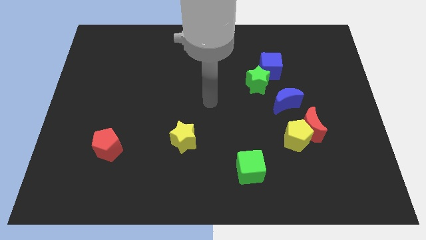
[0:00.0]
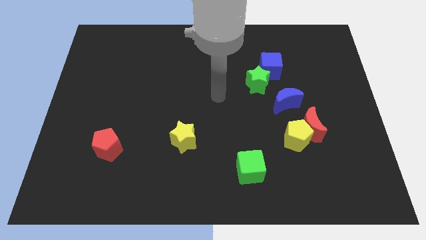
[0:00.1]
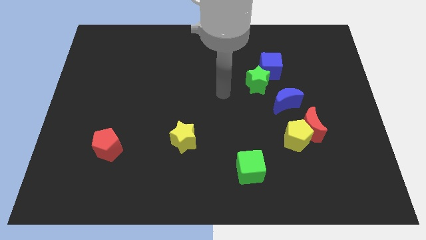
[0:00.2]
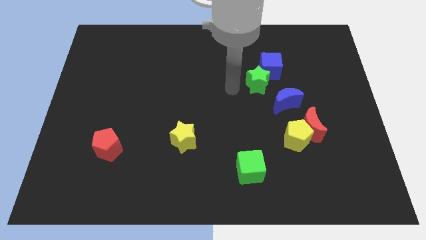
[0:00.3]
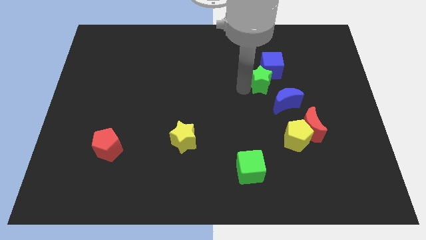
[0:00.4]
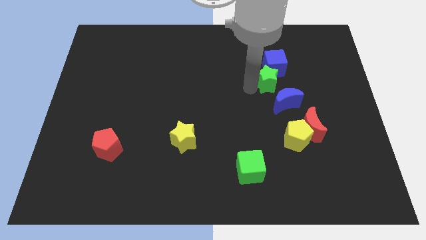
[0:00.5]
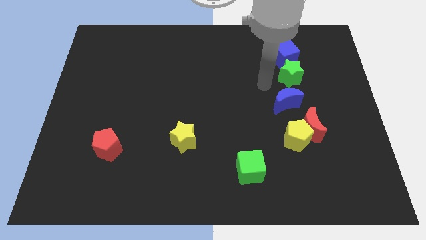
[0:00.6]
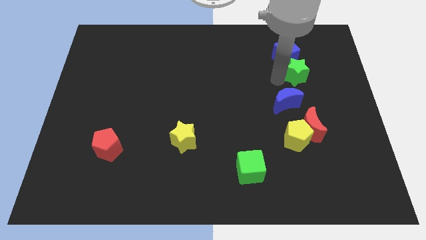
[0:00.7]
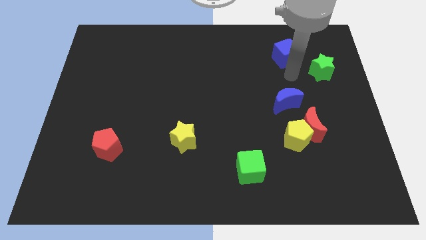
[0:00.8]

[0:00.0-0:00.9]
separate the blue cube from the green star

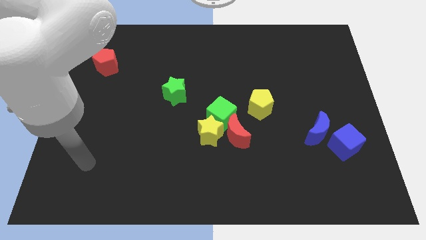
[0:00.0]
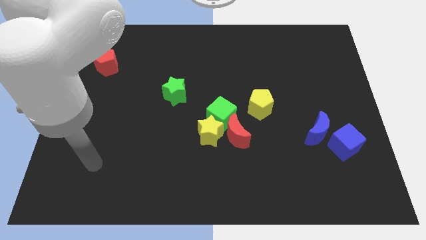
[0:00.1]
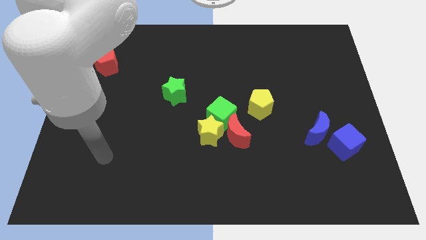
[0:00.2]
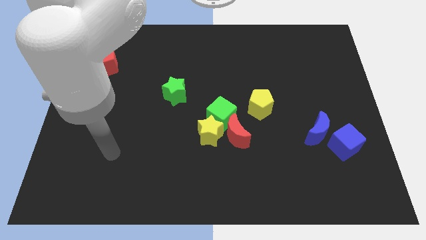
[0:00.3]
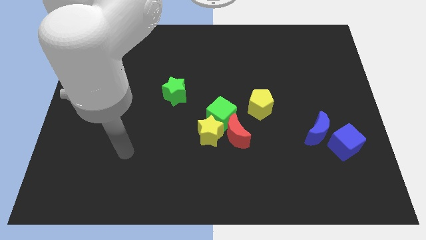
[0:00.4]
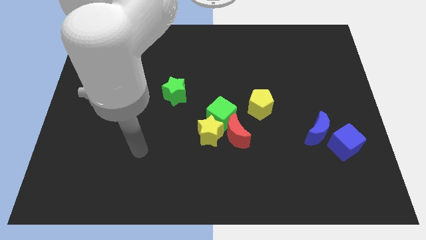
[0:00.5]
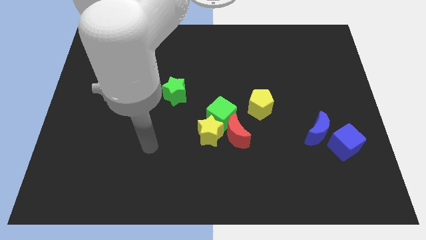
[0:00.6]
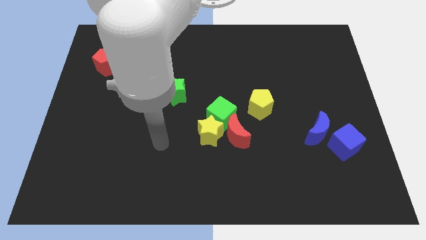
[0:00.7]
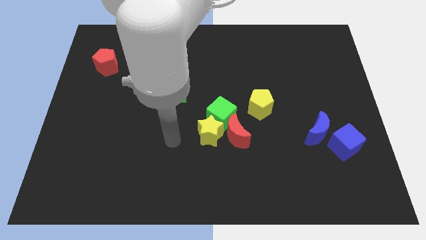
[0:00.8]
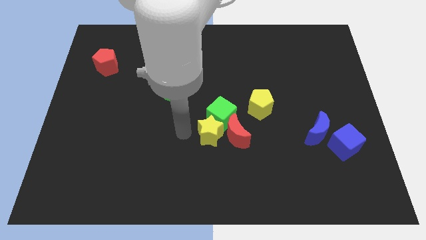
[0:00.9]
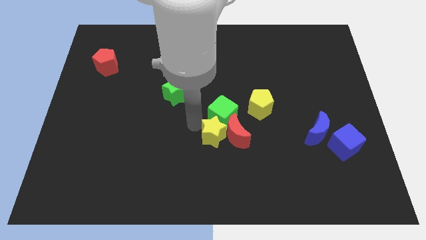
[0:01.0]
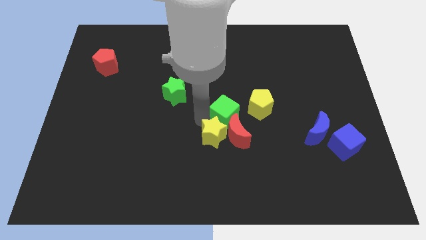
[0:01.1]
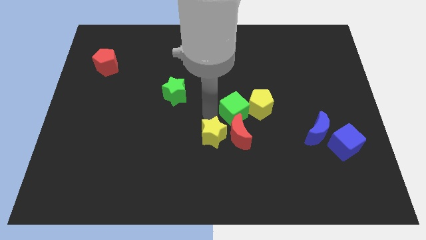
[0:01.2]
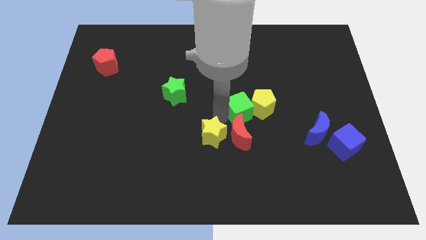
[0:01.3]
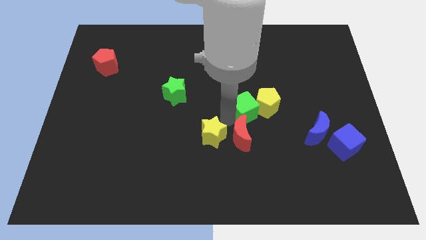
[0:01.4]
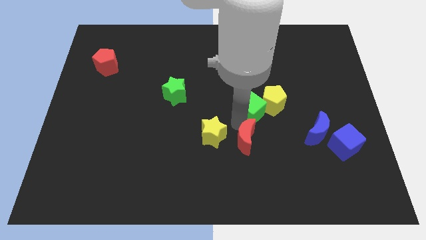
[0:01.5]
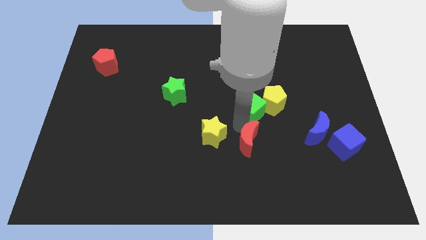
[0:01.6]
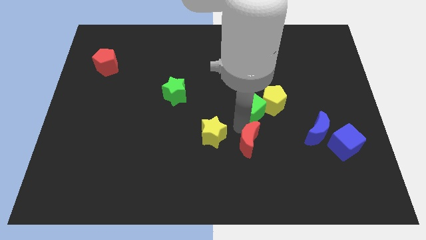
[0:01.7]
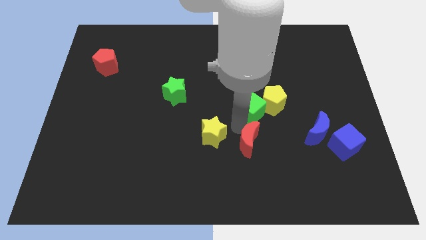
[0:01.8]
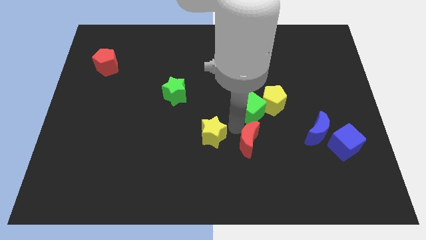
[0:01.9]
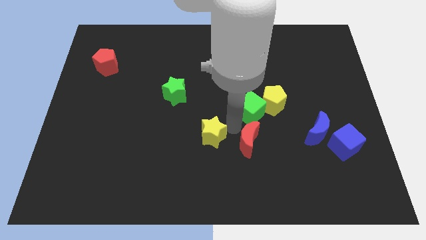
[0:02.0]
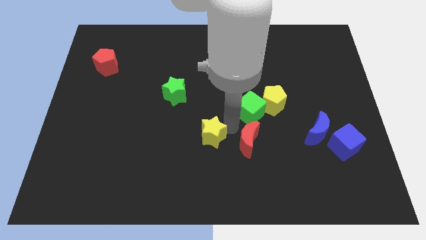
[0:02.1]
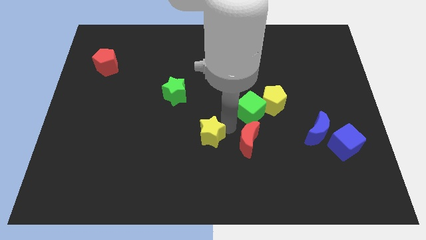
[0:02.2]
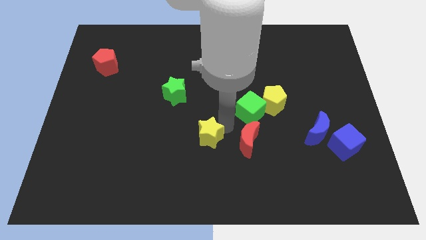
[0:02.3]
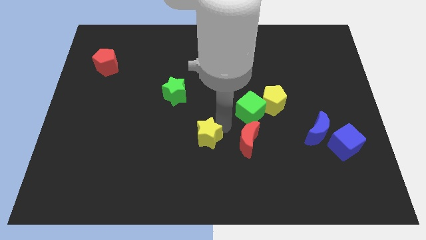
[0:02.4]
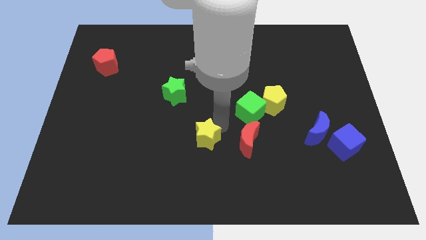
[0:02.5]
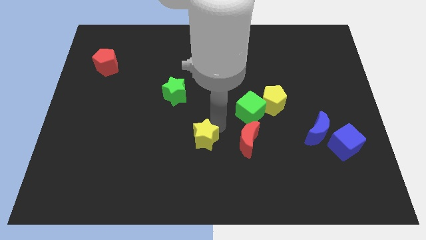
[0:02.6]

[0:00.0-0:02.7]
move the yellow star away from the green cube and red moon

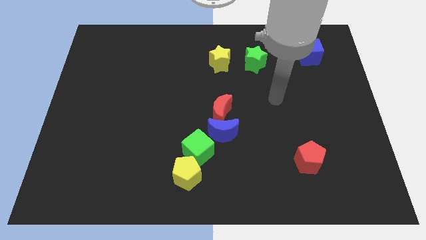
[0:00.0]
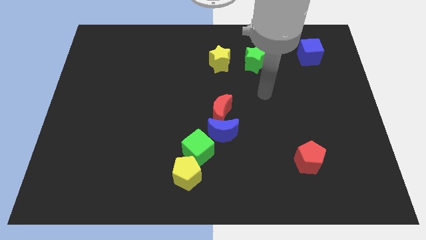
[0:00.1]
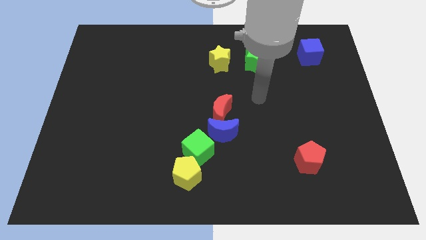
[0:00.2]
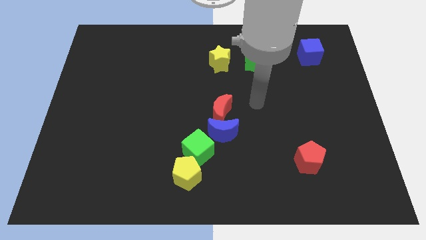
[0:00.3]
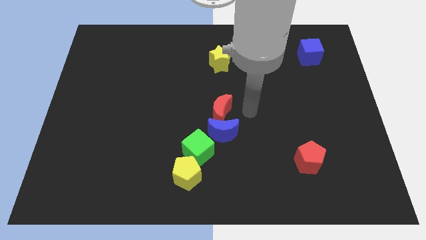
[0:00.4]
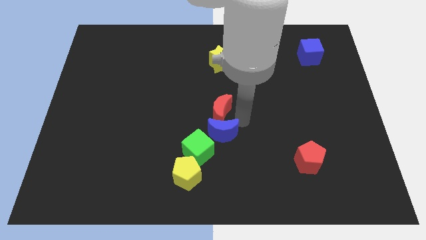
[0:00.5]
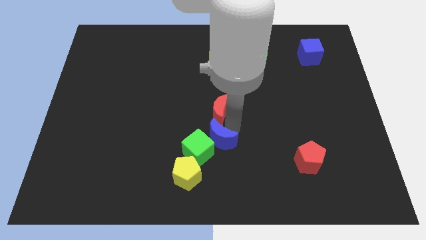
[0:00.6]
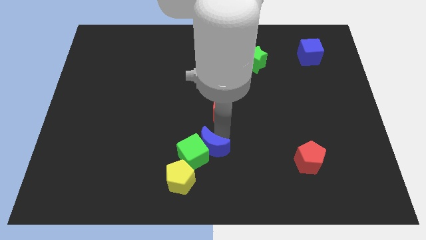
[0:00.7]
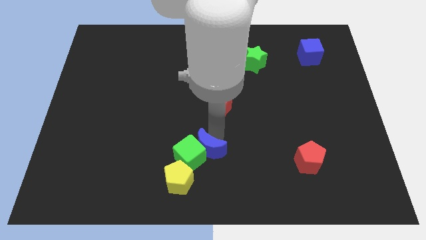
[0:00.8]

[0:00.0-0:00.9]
separate the red moon from the blue moon

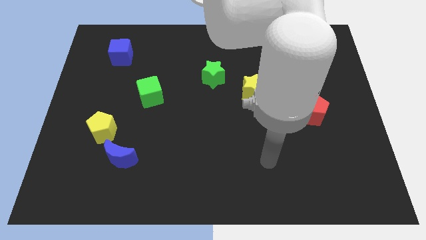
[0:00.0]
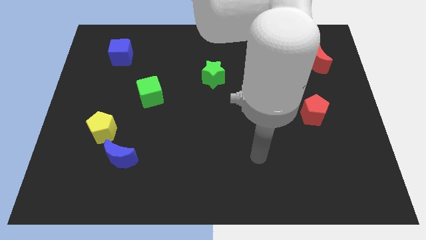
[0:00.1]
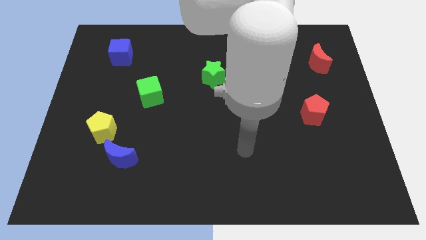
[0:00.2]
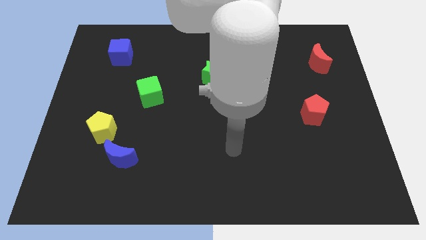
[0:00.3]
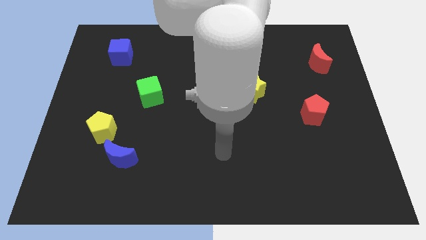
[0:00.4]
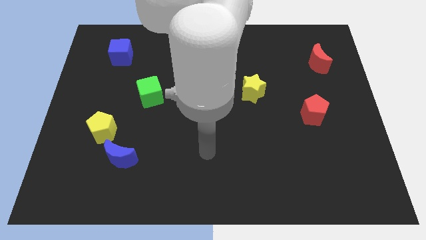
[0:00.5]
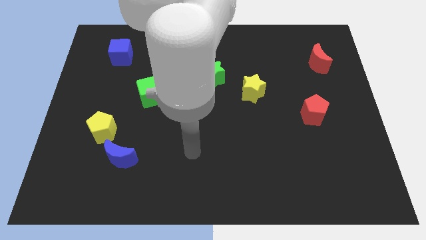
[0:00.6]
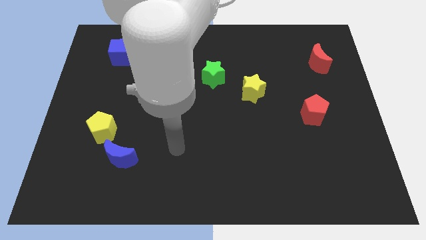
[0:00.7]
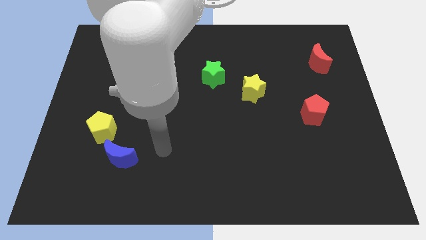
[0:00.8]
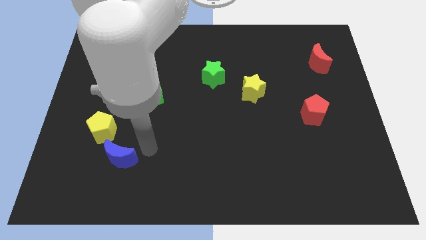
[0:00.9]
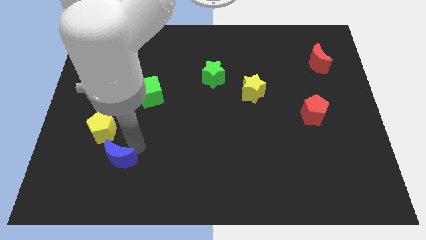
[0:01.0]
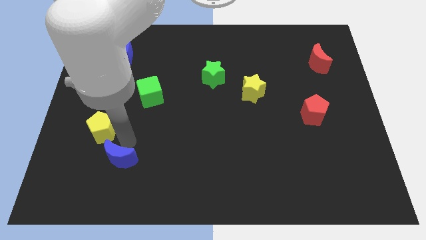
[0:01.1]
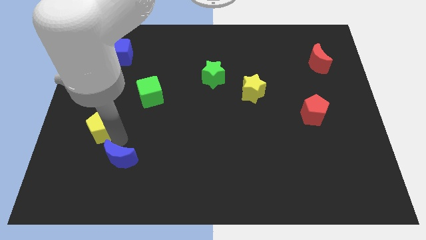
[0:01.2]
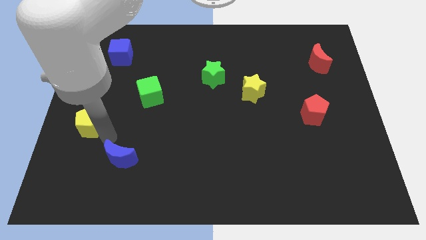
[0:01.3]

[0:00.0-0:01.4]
move the blue moon away from the yellow pentagon

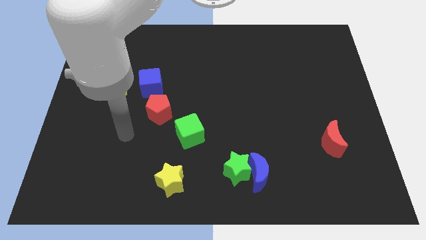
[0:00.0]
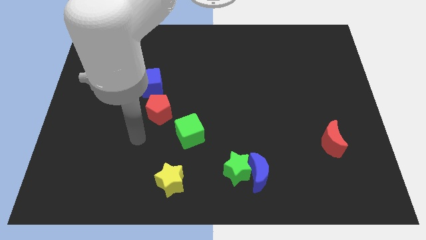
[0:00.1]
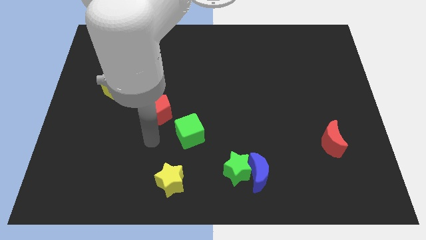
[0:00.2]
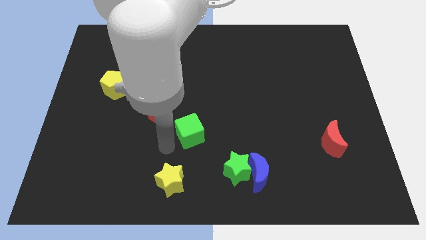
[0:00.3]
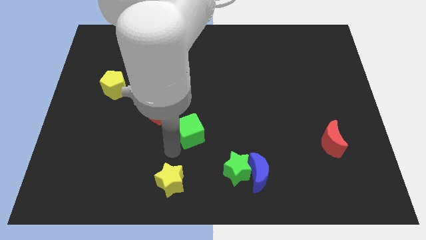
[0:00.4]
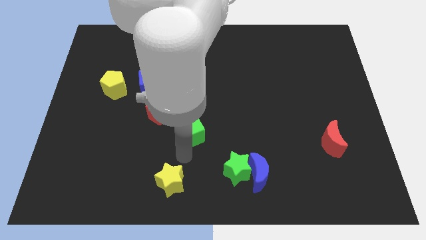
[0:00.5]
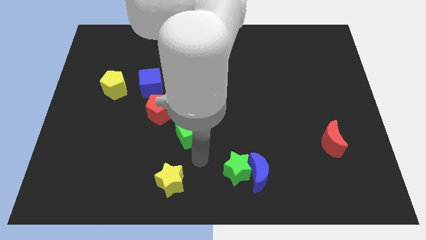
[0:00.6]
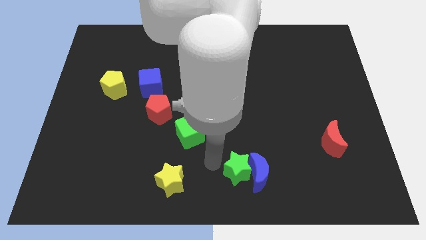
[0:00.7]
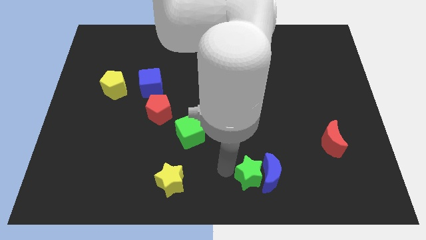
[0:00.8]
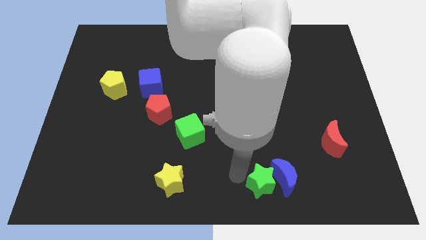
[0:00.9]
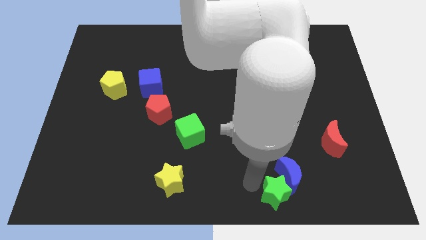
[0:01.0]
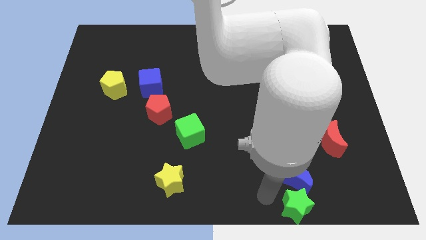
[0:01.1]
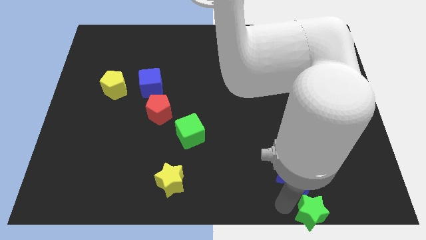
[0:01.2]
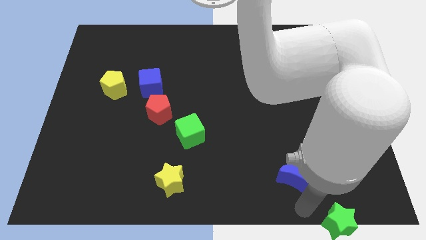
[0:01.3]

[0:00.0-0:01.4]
separate the blue moon from the green star

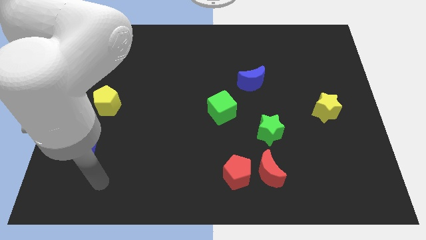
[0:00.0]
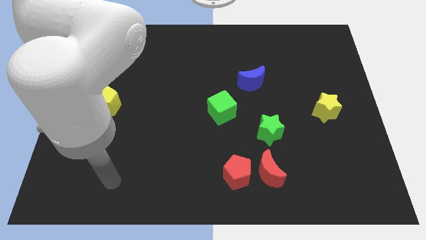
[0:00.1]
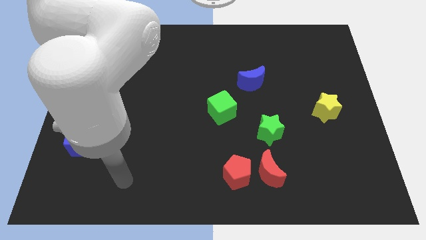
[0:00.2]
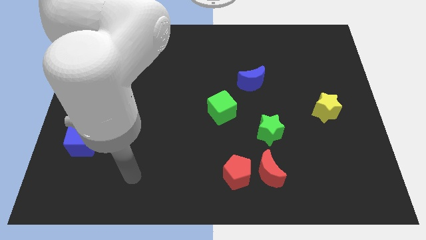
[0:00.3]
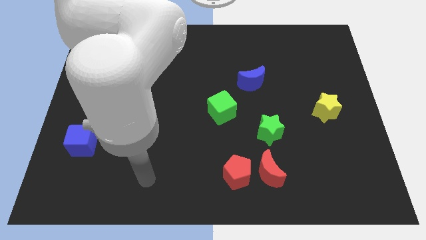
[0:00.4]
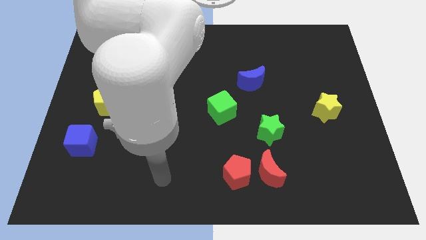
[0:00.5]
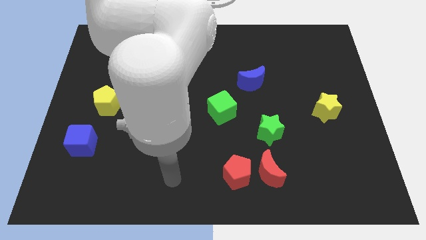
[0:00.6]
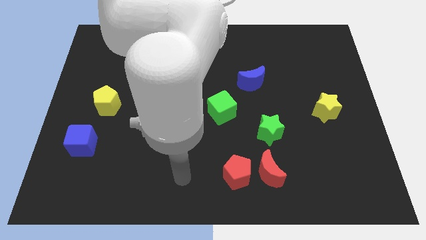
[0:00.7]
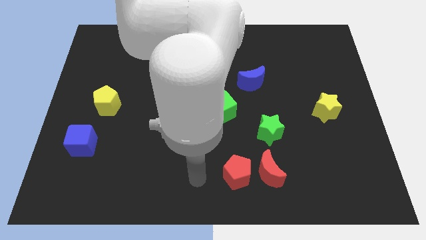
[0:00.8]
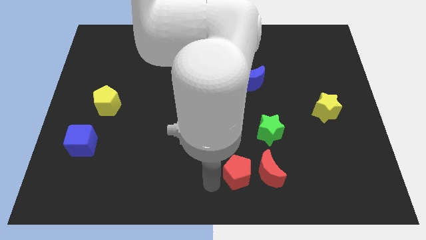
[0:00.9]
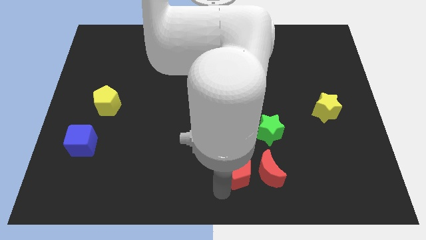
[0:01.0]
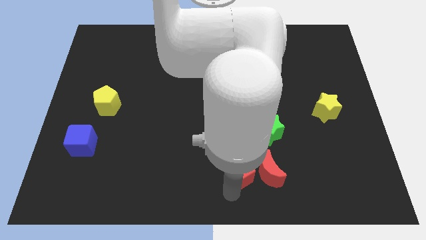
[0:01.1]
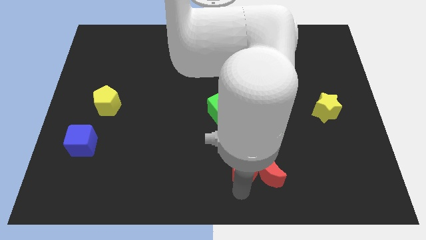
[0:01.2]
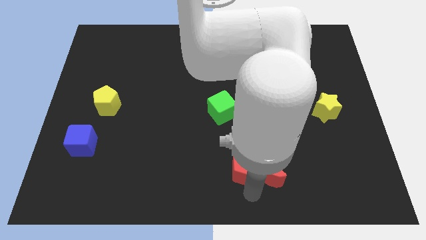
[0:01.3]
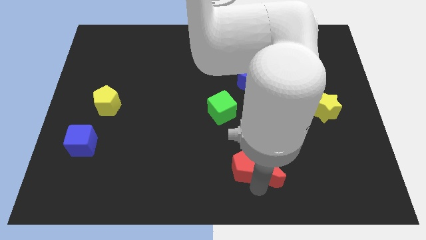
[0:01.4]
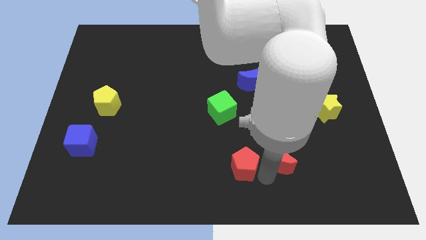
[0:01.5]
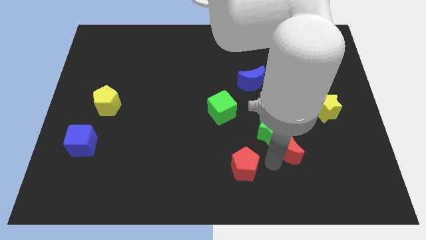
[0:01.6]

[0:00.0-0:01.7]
pull the red pentagon apart from the red moon

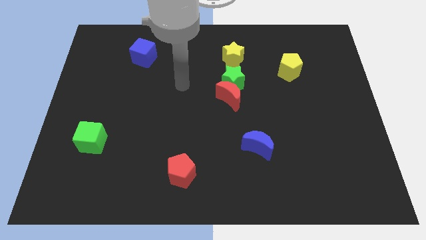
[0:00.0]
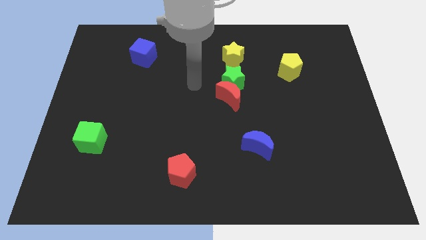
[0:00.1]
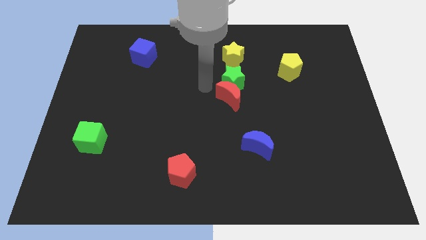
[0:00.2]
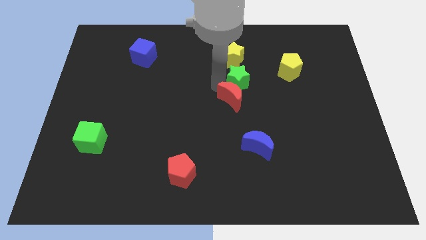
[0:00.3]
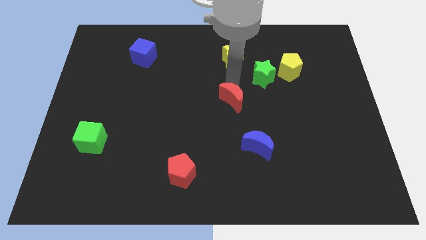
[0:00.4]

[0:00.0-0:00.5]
move the red moon away from the green star

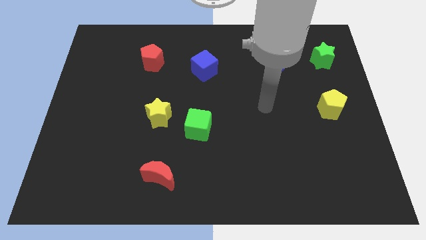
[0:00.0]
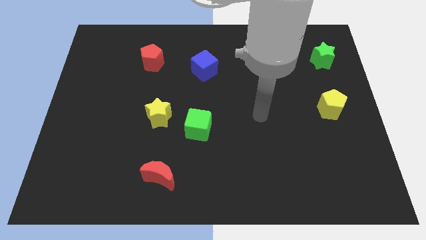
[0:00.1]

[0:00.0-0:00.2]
move the green cube away from the yellow star
